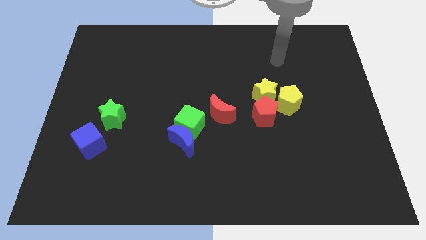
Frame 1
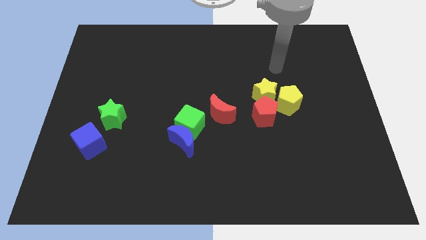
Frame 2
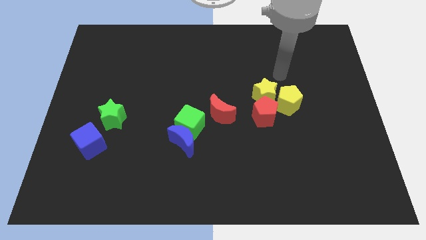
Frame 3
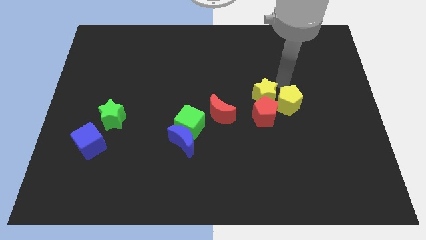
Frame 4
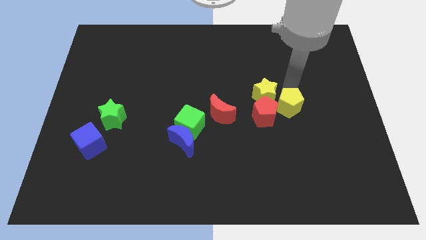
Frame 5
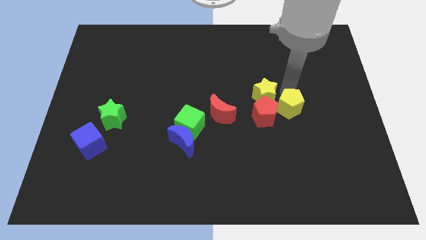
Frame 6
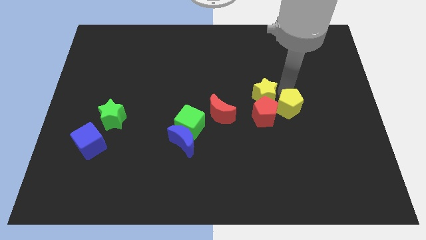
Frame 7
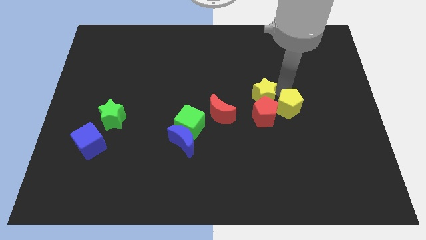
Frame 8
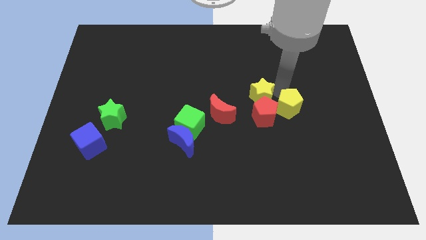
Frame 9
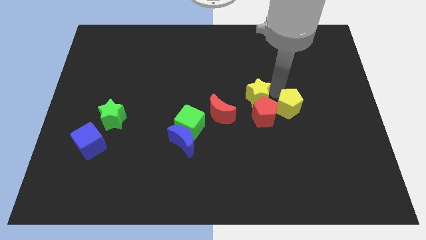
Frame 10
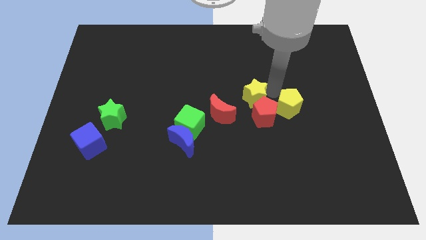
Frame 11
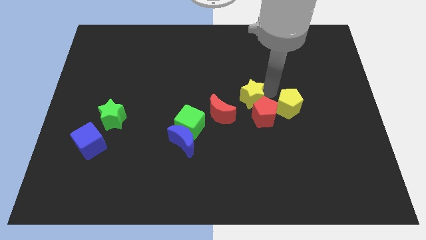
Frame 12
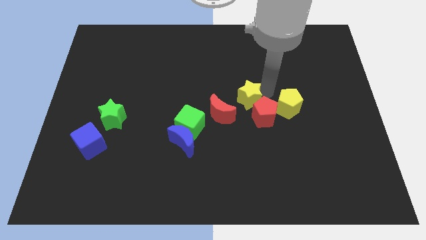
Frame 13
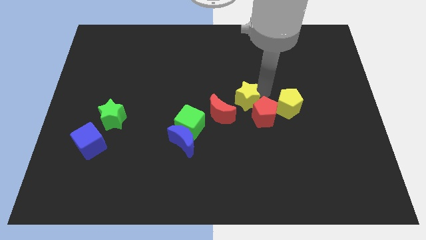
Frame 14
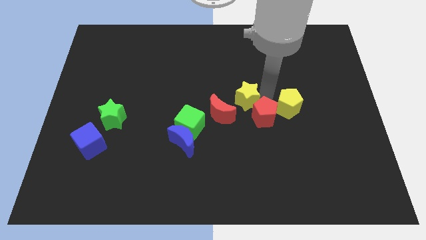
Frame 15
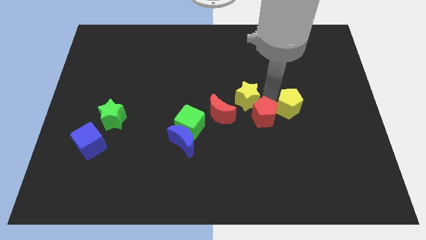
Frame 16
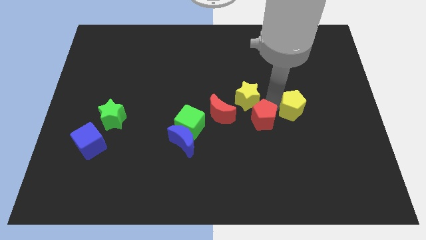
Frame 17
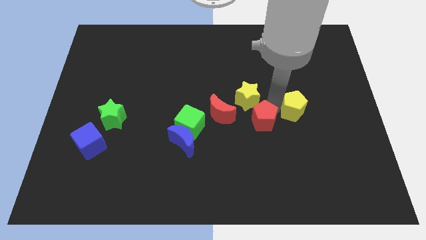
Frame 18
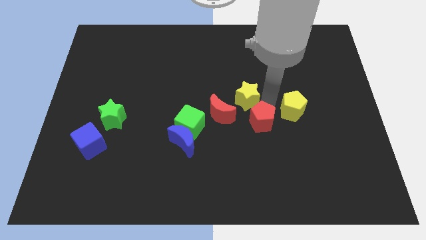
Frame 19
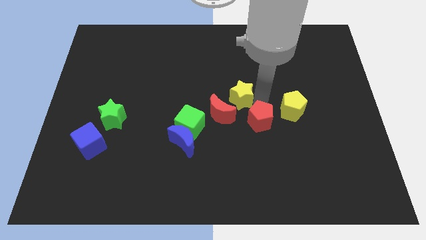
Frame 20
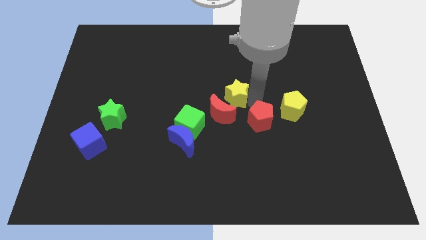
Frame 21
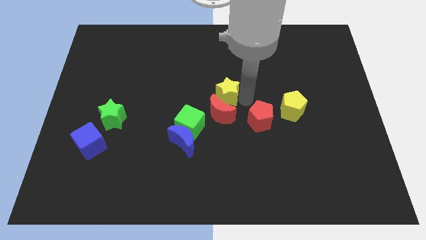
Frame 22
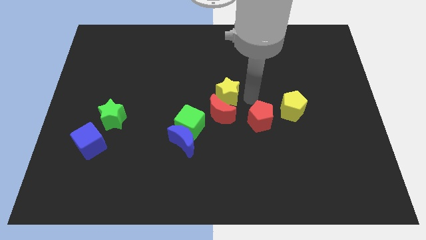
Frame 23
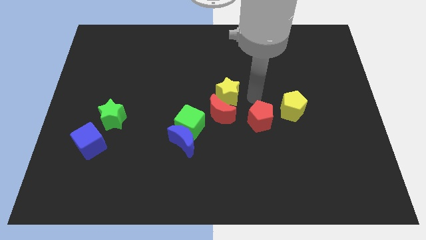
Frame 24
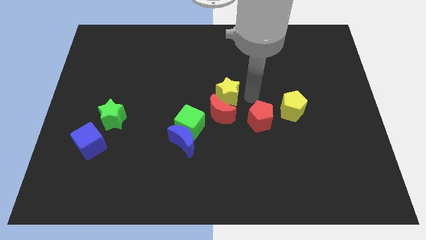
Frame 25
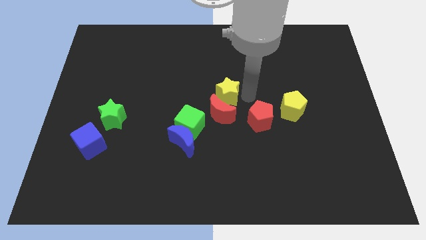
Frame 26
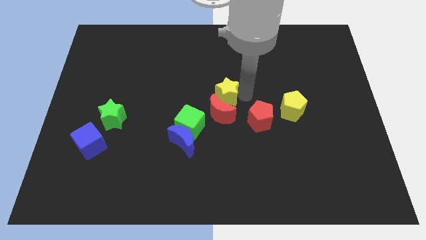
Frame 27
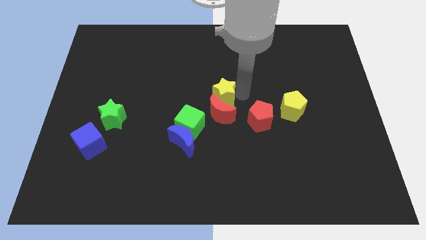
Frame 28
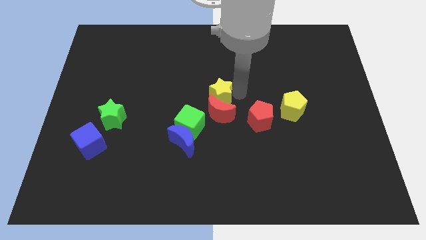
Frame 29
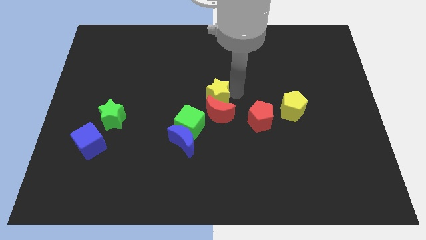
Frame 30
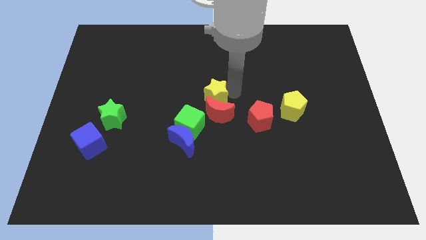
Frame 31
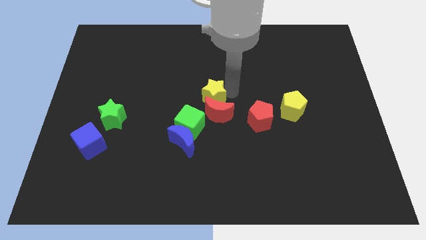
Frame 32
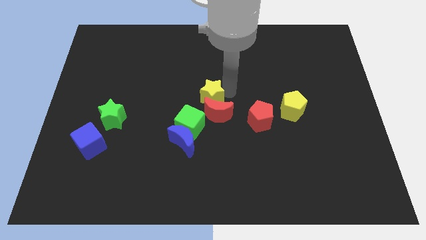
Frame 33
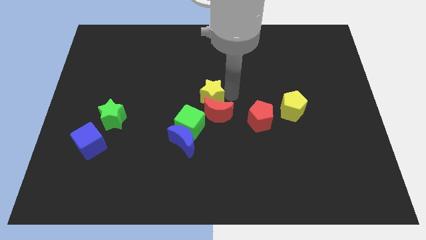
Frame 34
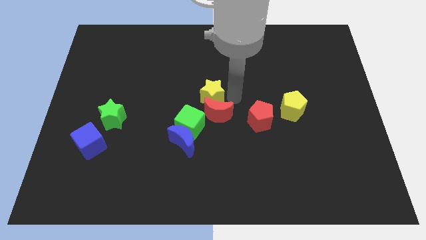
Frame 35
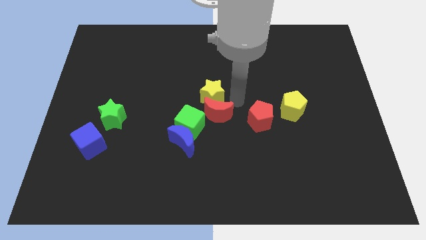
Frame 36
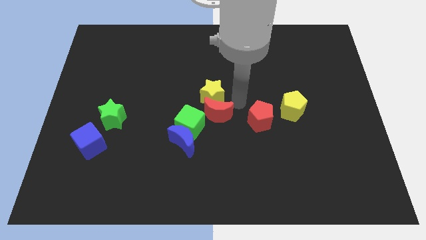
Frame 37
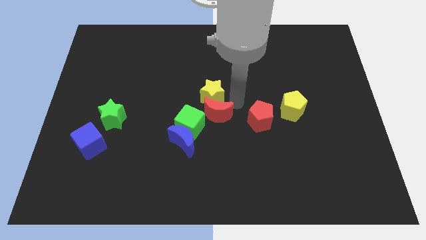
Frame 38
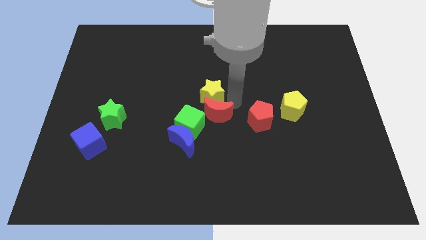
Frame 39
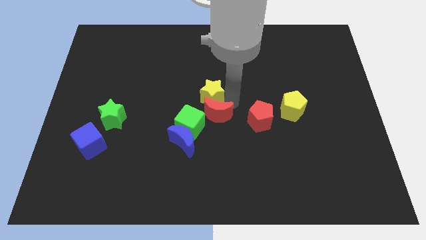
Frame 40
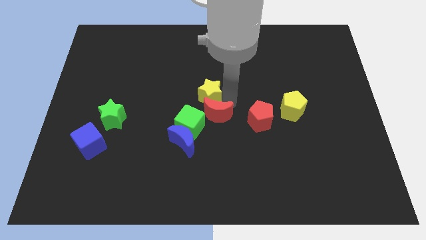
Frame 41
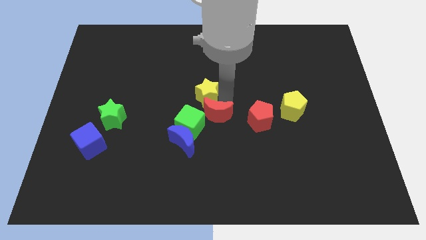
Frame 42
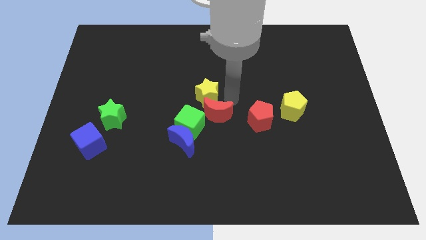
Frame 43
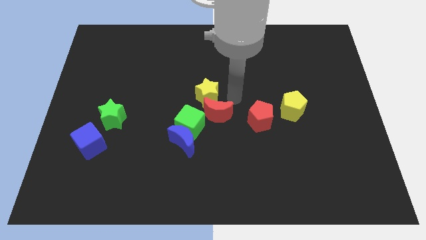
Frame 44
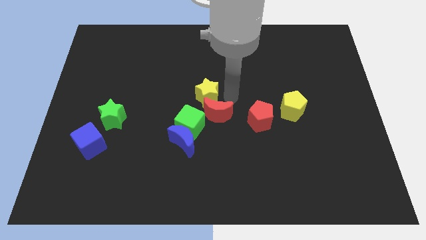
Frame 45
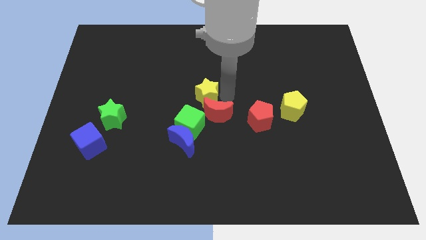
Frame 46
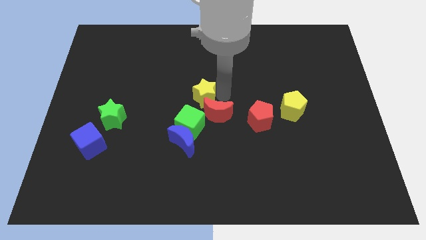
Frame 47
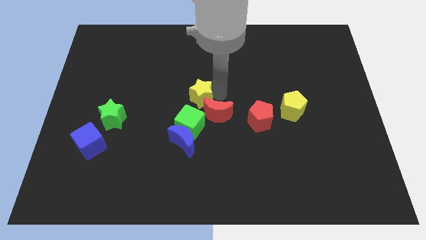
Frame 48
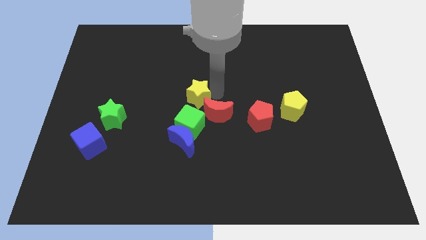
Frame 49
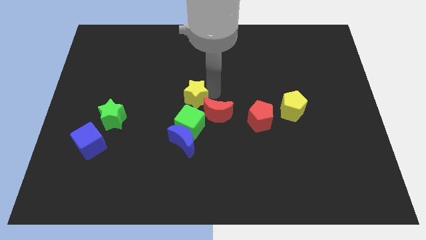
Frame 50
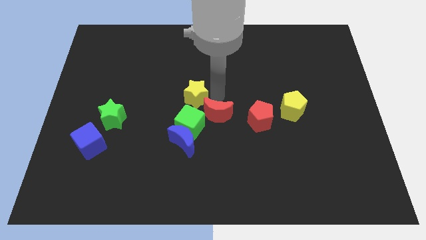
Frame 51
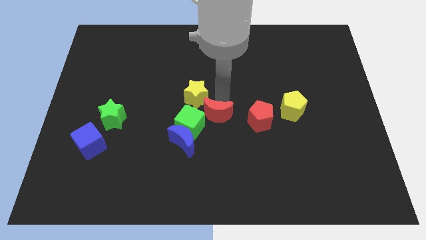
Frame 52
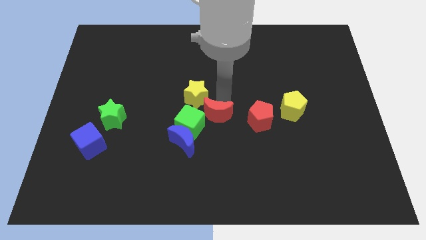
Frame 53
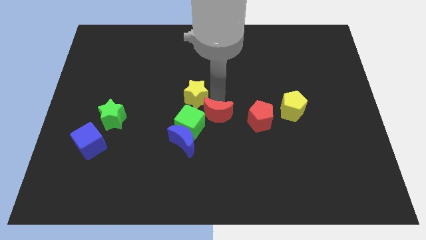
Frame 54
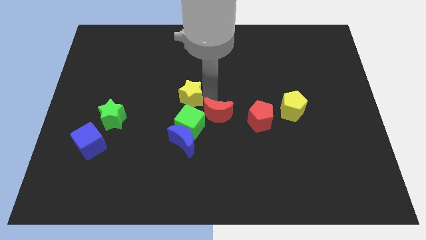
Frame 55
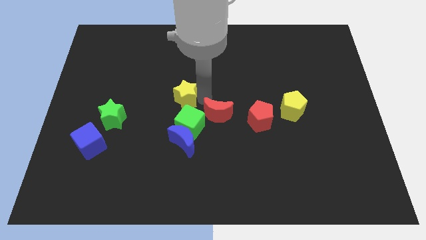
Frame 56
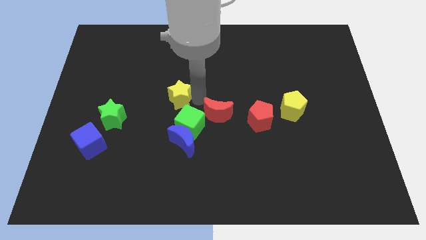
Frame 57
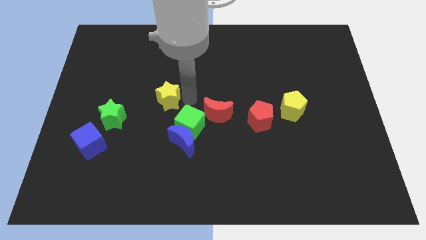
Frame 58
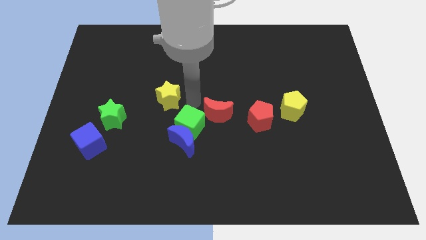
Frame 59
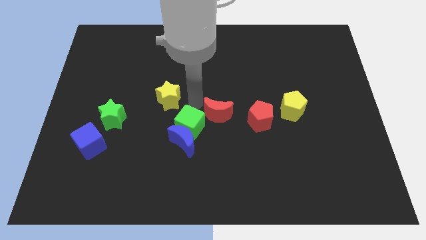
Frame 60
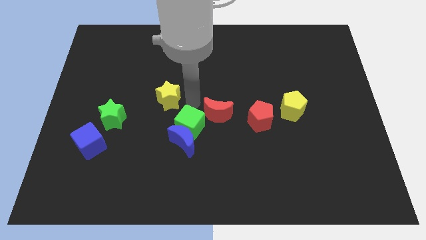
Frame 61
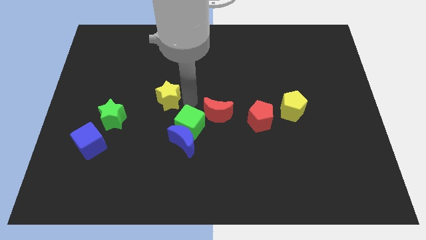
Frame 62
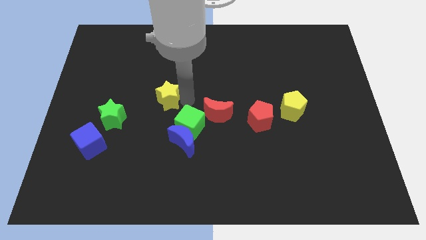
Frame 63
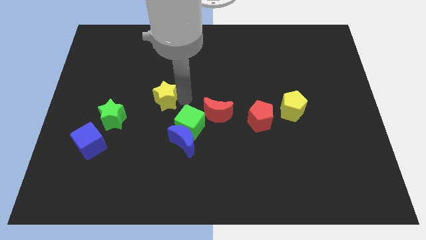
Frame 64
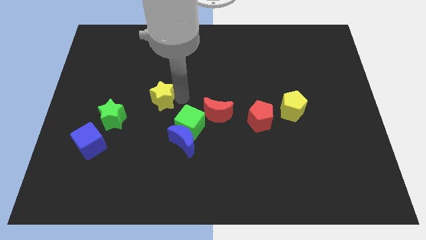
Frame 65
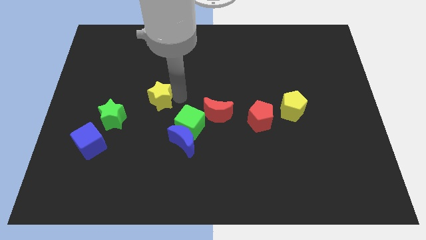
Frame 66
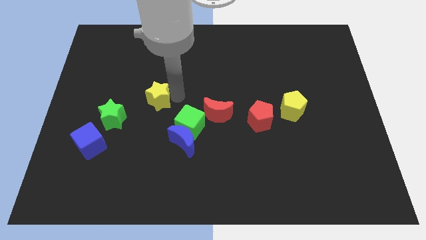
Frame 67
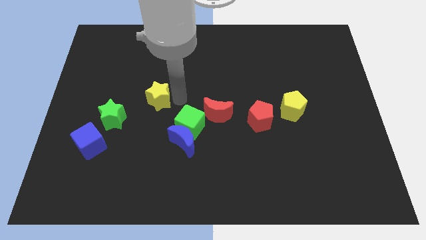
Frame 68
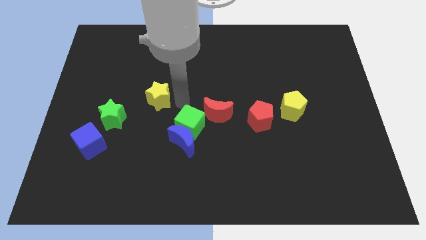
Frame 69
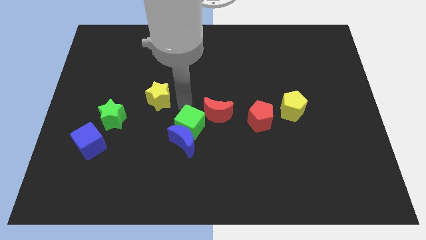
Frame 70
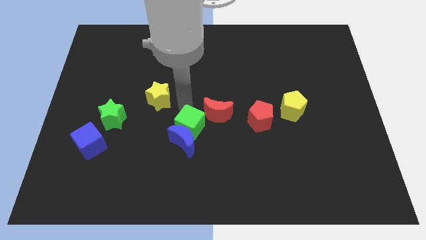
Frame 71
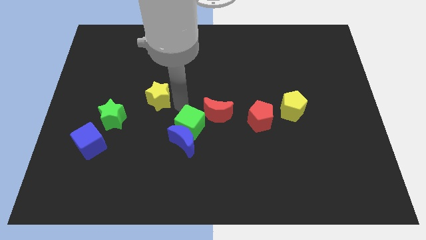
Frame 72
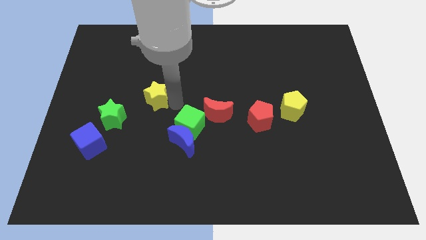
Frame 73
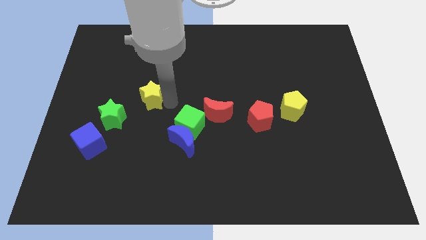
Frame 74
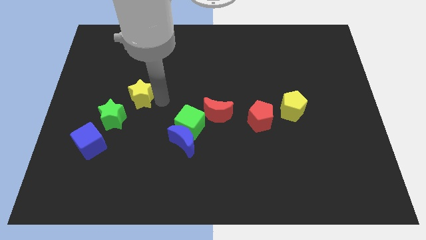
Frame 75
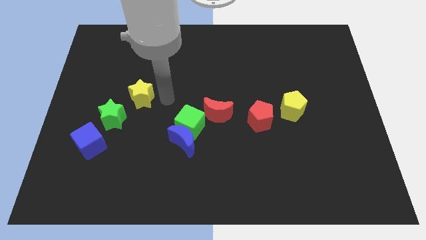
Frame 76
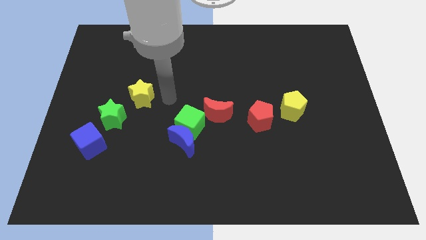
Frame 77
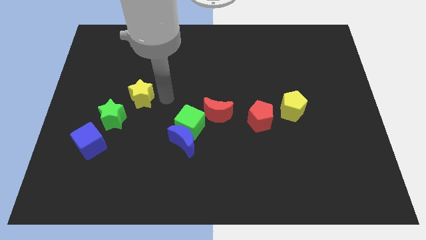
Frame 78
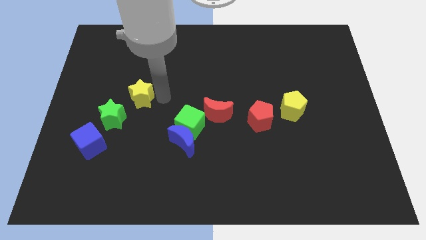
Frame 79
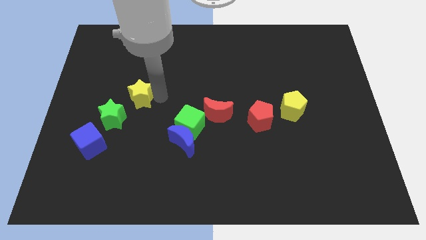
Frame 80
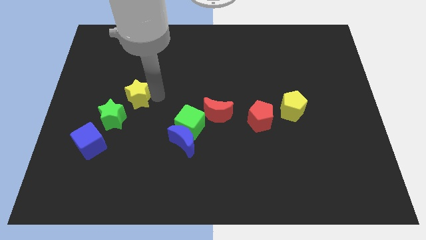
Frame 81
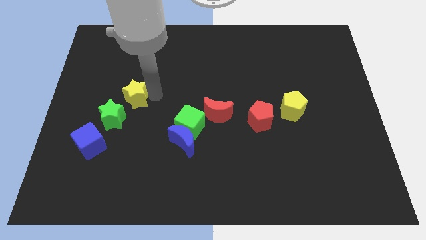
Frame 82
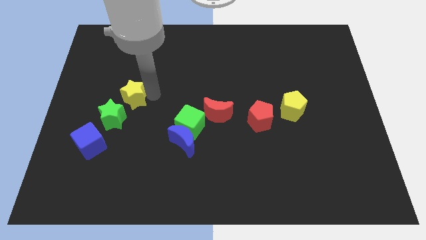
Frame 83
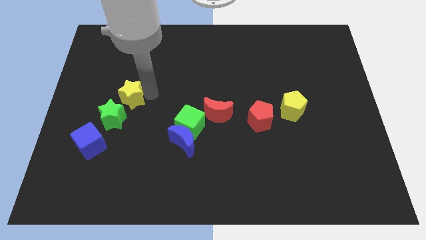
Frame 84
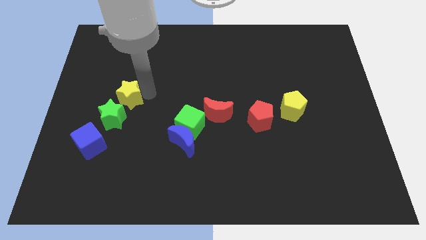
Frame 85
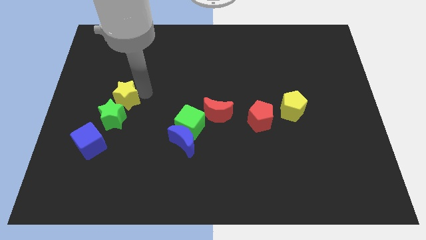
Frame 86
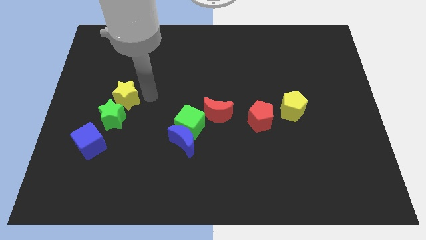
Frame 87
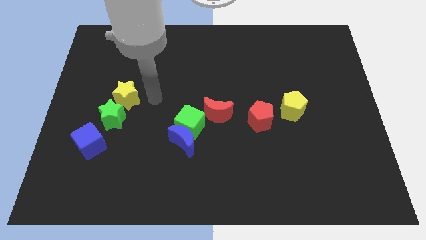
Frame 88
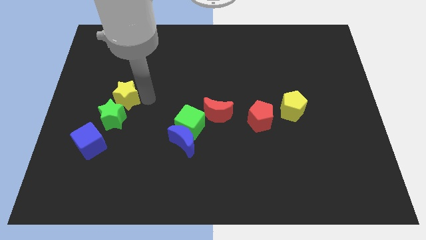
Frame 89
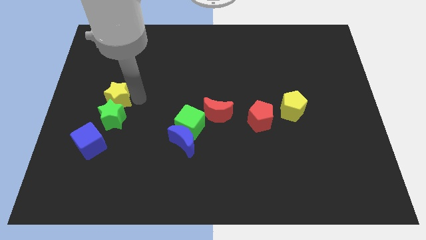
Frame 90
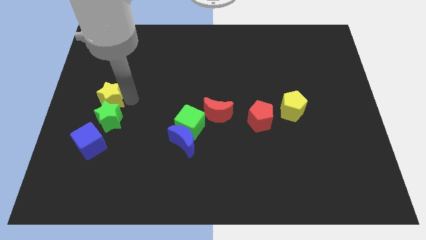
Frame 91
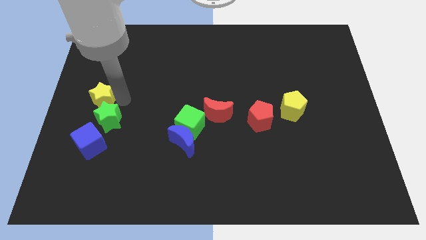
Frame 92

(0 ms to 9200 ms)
push the yellow star to the left side of the board
